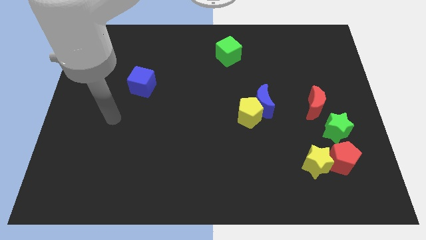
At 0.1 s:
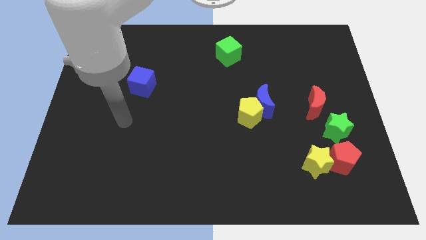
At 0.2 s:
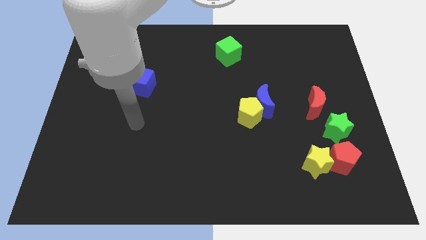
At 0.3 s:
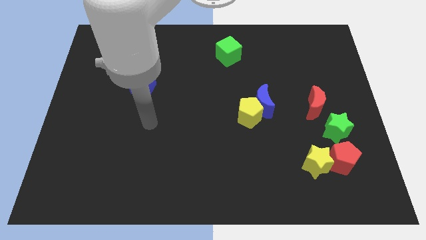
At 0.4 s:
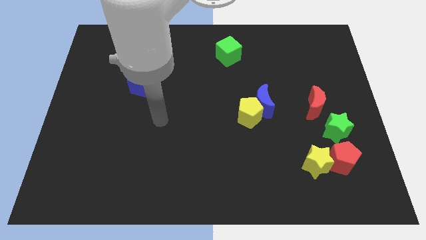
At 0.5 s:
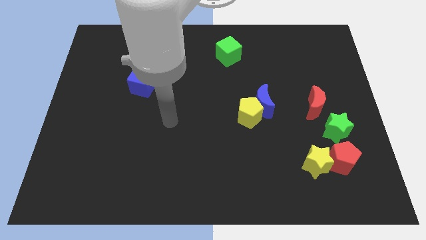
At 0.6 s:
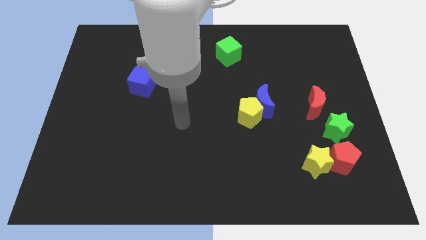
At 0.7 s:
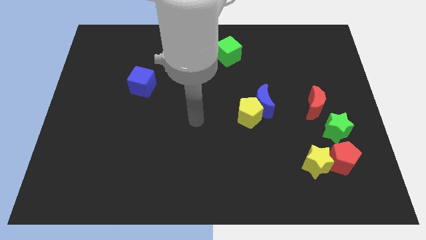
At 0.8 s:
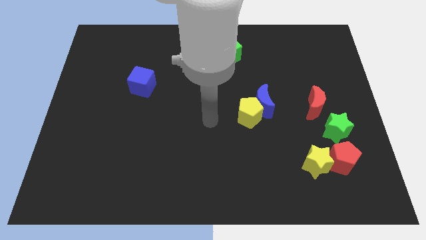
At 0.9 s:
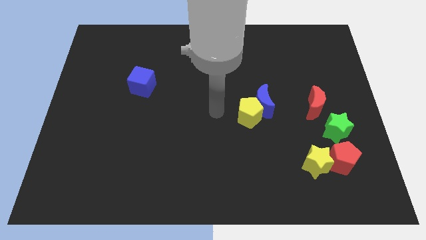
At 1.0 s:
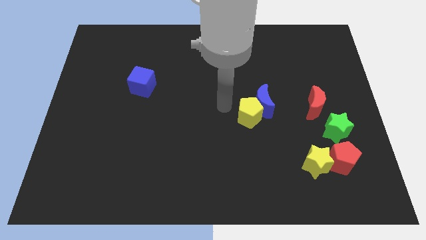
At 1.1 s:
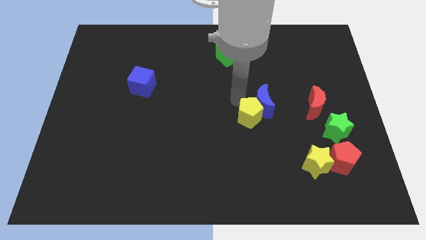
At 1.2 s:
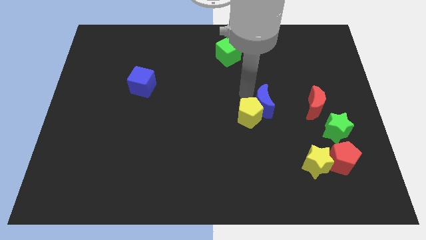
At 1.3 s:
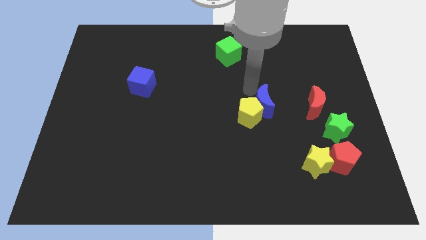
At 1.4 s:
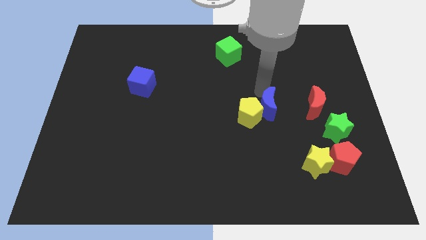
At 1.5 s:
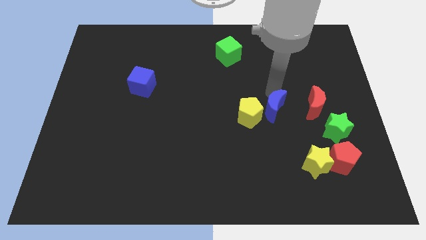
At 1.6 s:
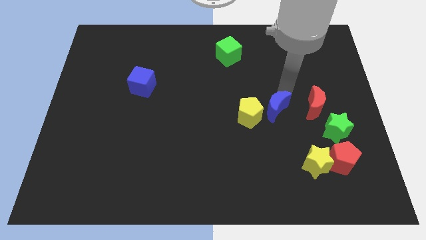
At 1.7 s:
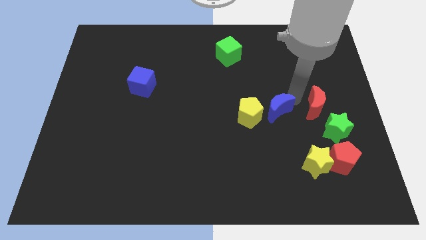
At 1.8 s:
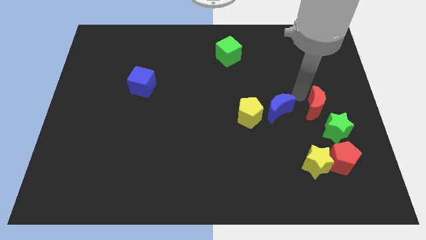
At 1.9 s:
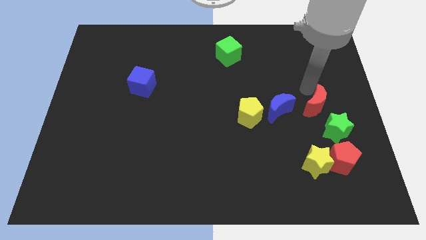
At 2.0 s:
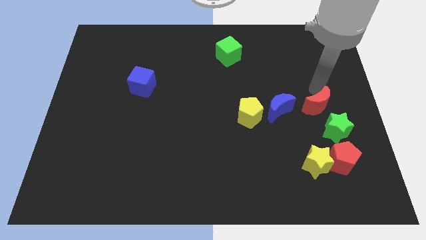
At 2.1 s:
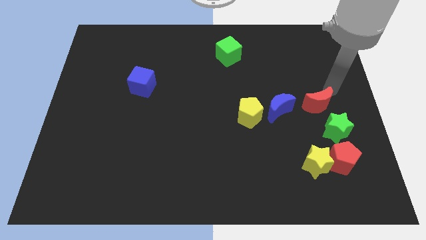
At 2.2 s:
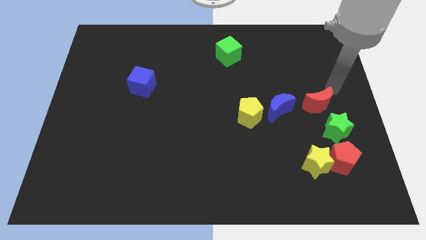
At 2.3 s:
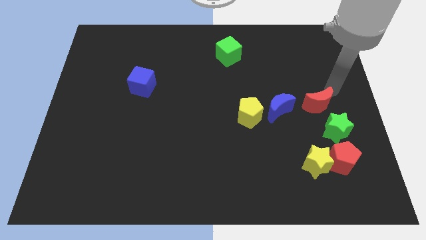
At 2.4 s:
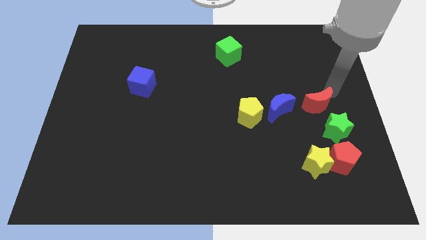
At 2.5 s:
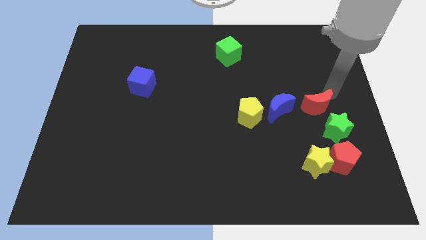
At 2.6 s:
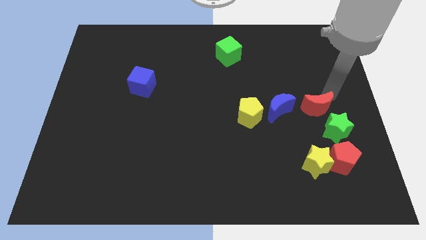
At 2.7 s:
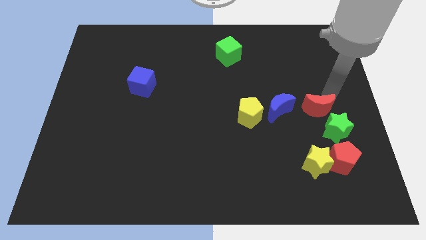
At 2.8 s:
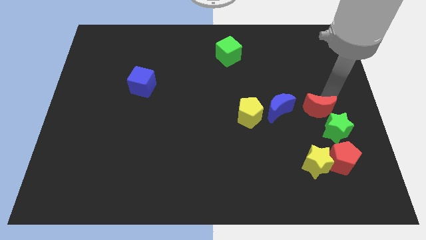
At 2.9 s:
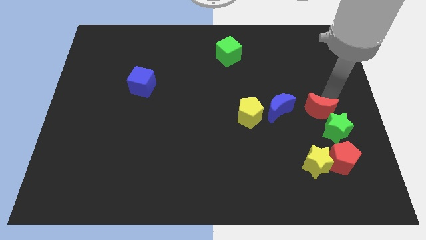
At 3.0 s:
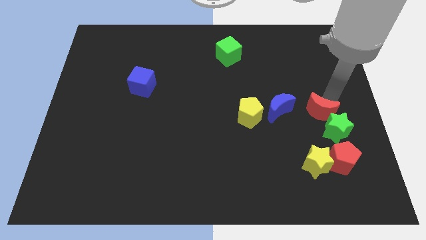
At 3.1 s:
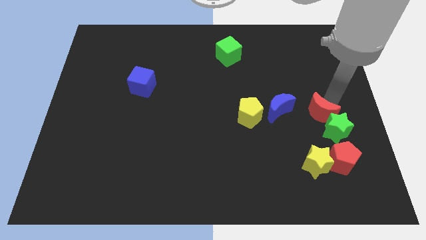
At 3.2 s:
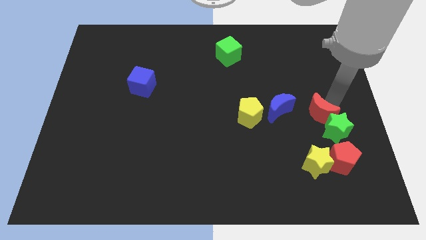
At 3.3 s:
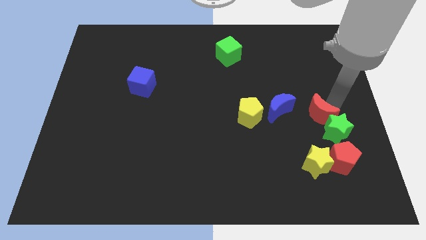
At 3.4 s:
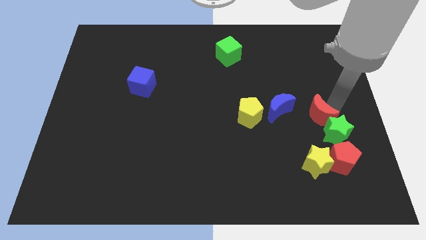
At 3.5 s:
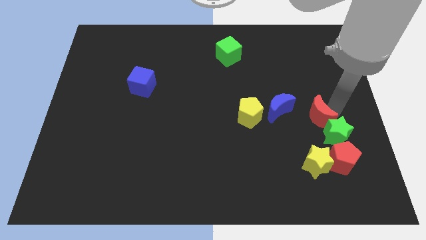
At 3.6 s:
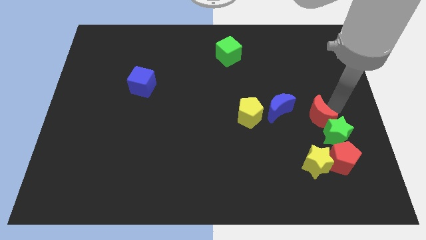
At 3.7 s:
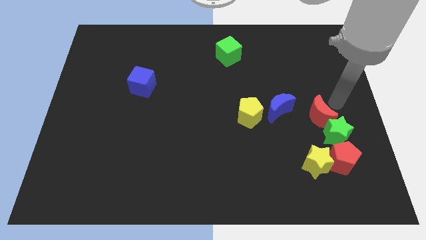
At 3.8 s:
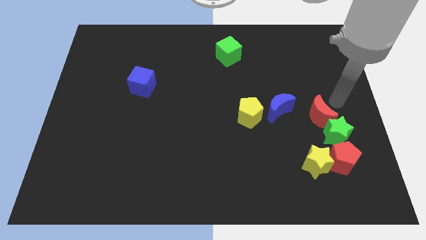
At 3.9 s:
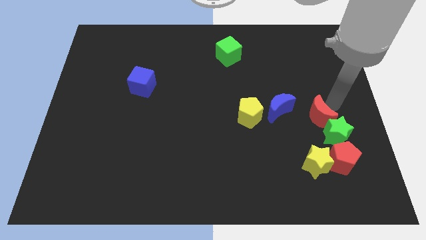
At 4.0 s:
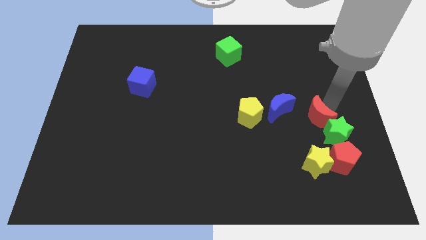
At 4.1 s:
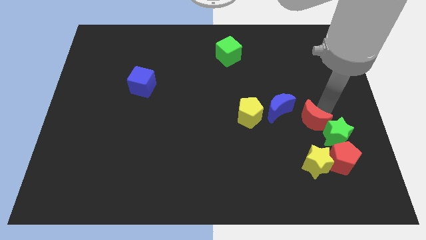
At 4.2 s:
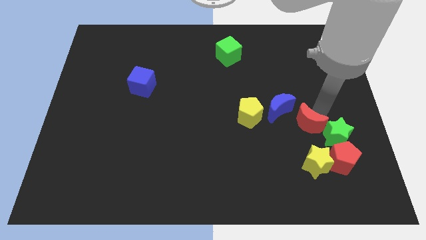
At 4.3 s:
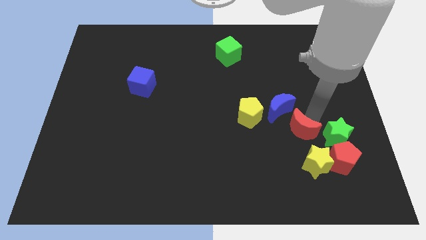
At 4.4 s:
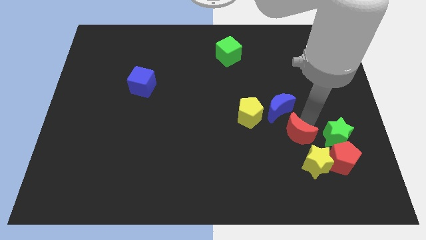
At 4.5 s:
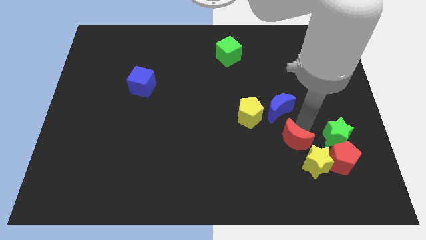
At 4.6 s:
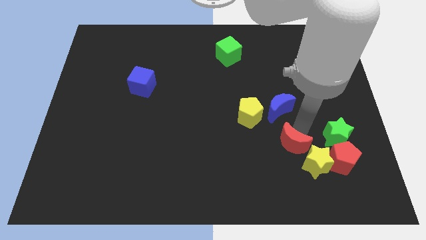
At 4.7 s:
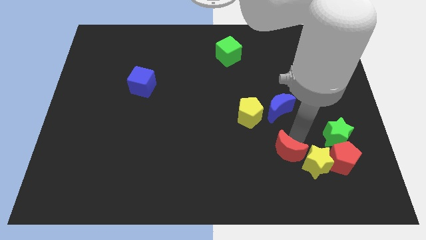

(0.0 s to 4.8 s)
put the red moon to the left of the yellow star

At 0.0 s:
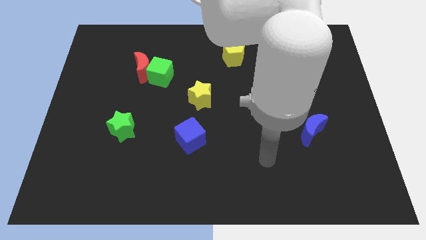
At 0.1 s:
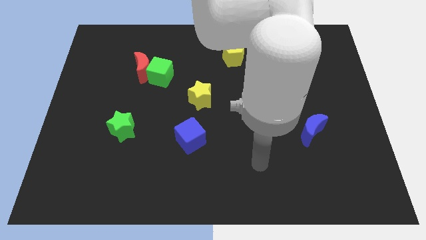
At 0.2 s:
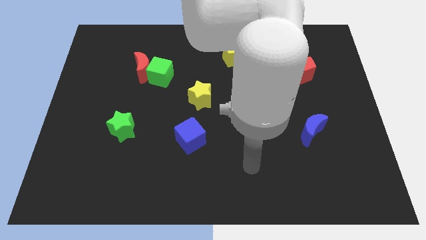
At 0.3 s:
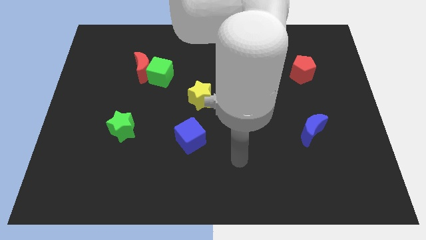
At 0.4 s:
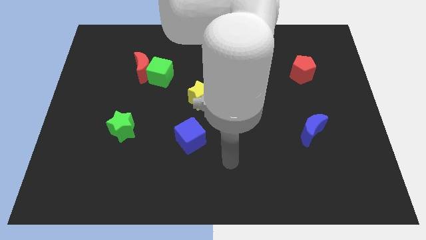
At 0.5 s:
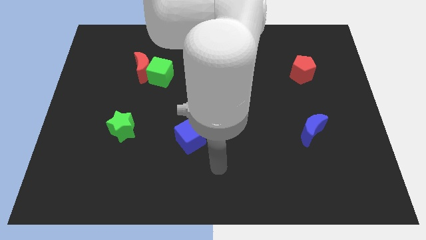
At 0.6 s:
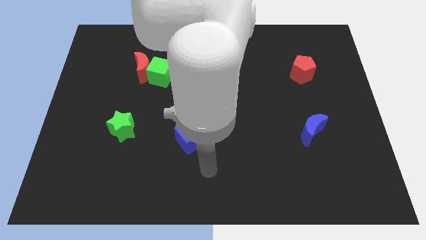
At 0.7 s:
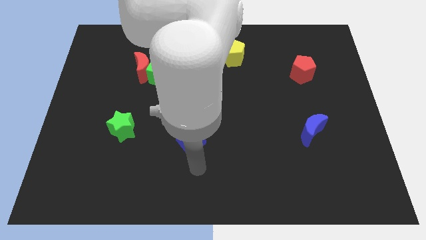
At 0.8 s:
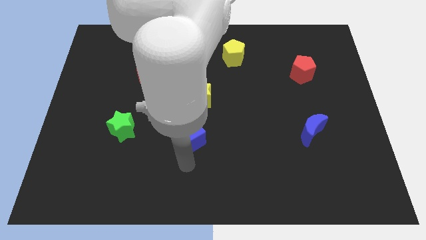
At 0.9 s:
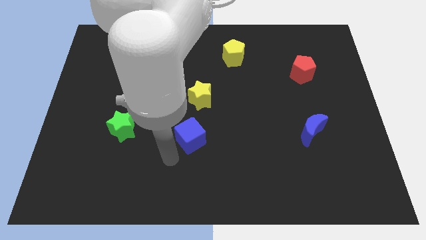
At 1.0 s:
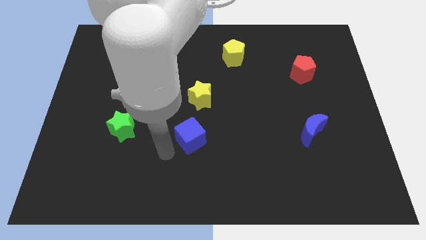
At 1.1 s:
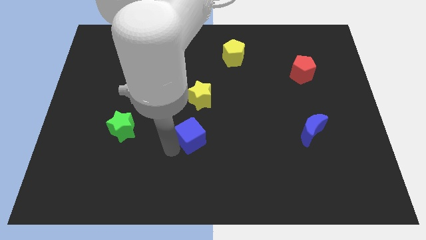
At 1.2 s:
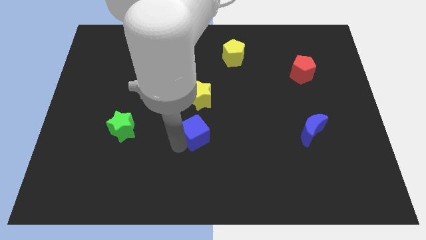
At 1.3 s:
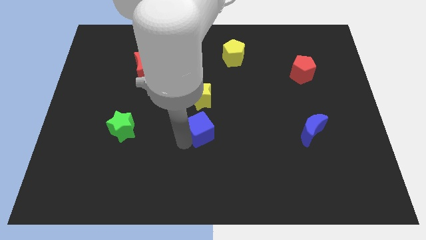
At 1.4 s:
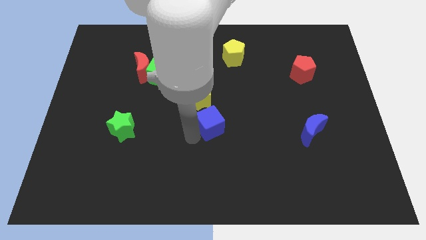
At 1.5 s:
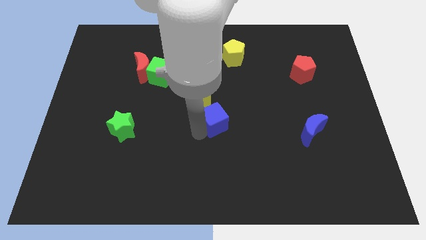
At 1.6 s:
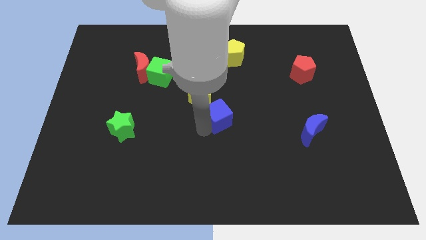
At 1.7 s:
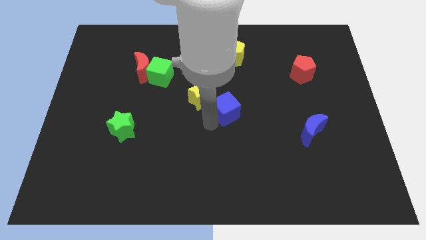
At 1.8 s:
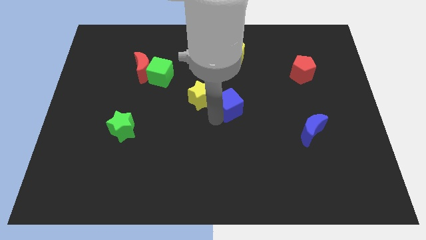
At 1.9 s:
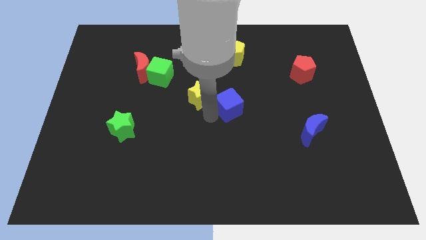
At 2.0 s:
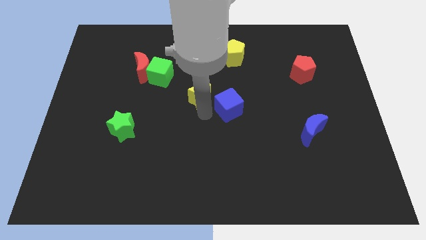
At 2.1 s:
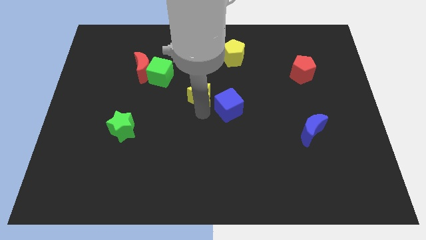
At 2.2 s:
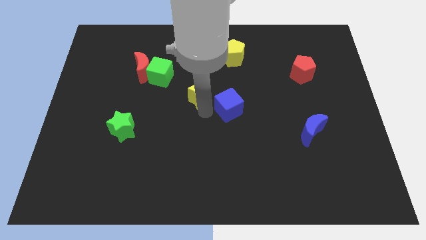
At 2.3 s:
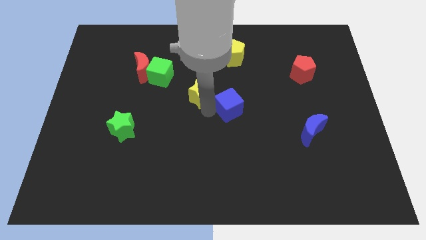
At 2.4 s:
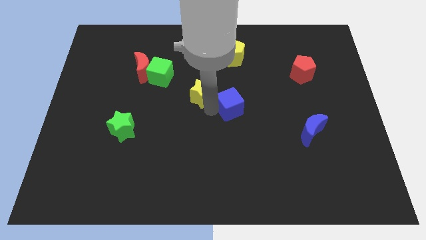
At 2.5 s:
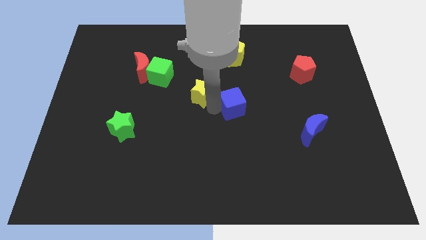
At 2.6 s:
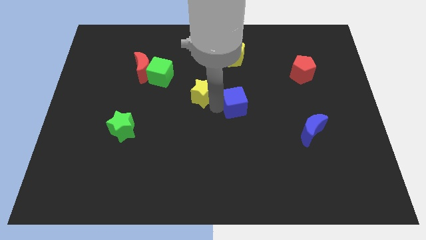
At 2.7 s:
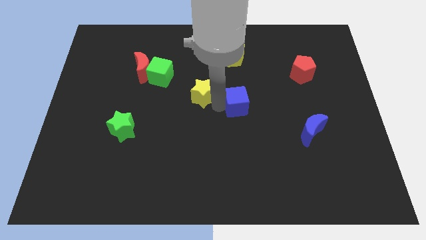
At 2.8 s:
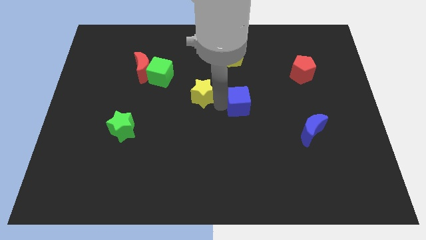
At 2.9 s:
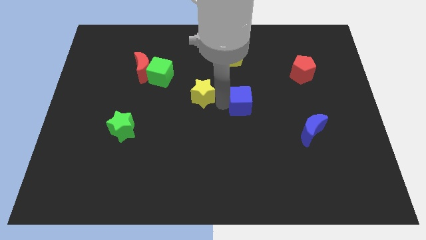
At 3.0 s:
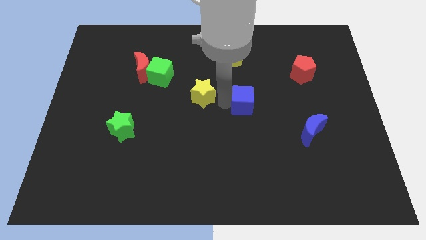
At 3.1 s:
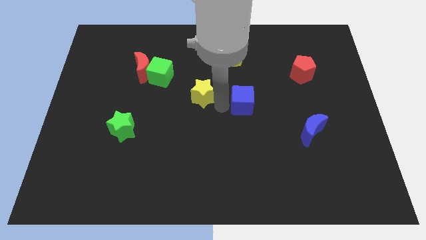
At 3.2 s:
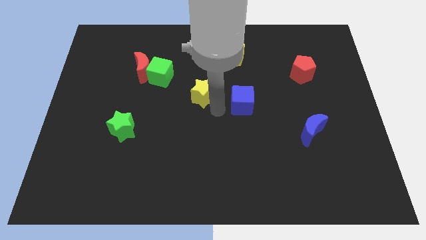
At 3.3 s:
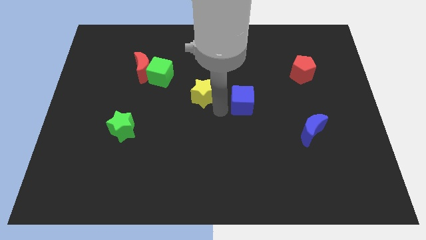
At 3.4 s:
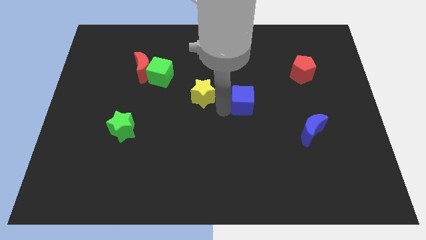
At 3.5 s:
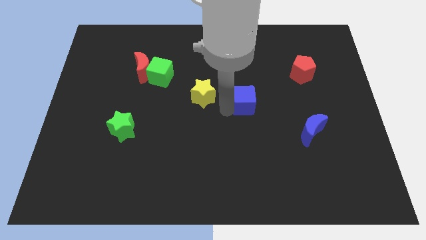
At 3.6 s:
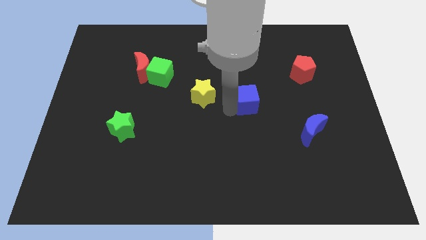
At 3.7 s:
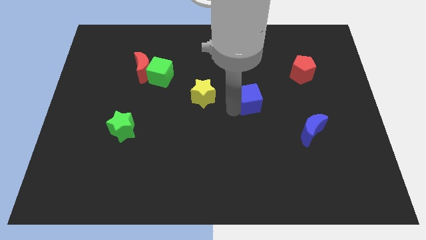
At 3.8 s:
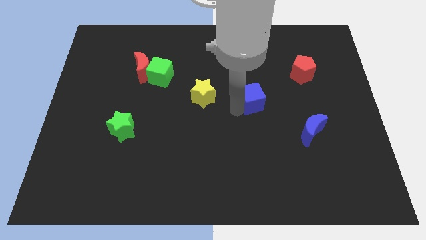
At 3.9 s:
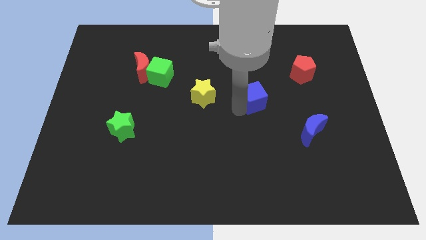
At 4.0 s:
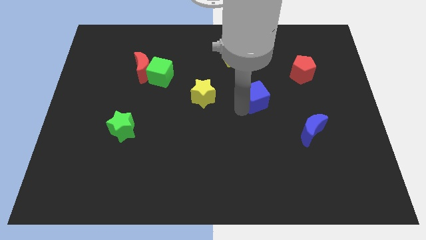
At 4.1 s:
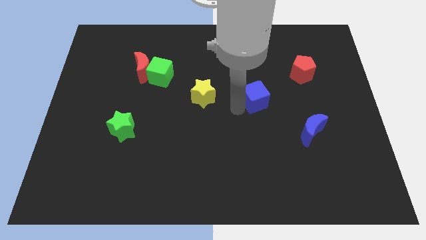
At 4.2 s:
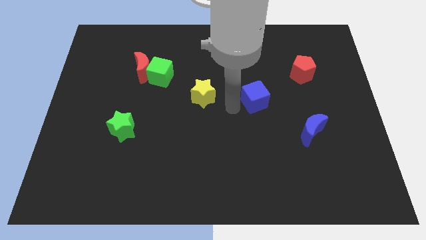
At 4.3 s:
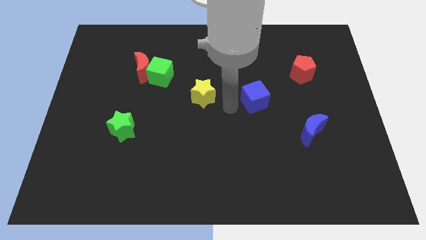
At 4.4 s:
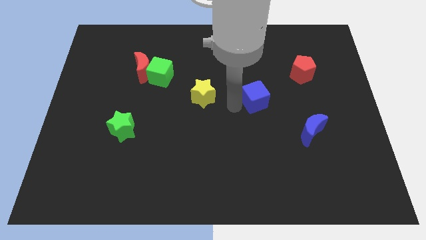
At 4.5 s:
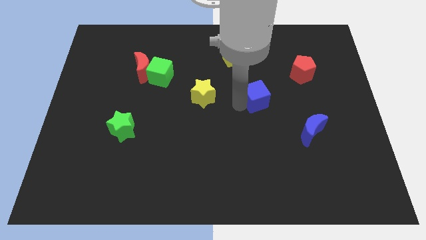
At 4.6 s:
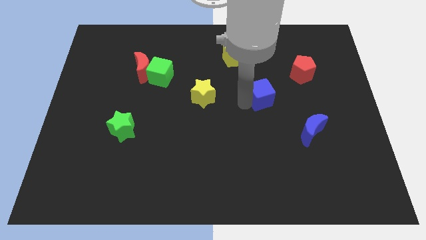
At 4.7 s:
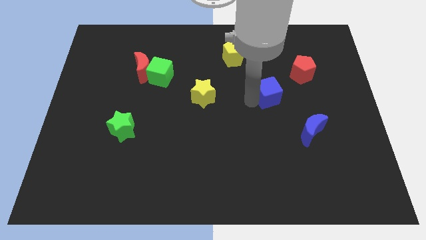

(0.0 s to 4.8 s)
slide the blue cube to the bottom left side of the red pentagon
